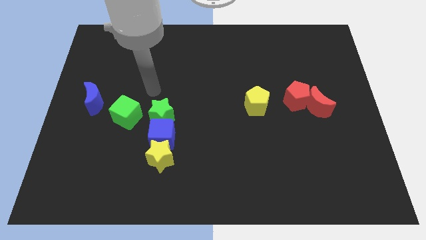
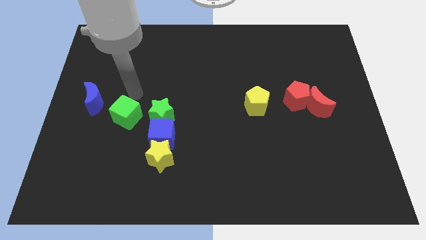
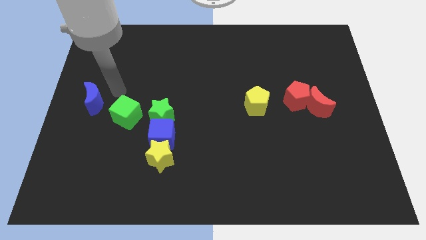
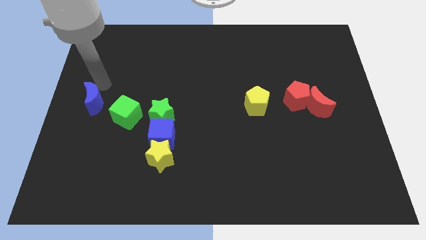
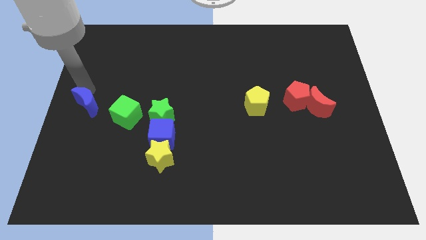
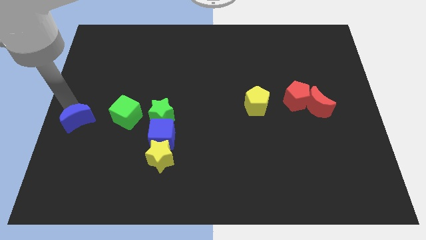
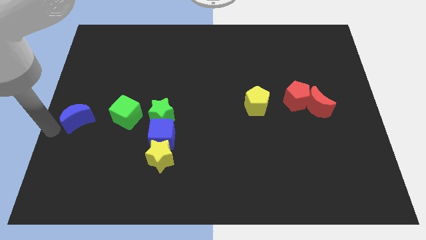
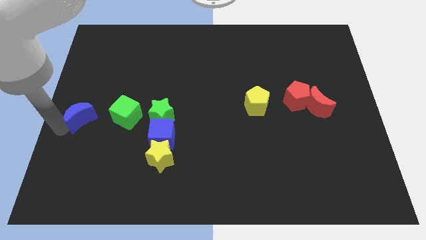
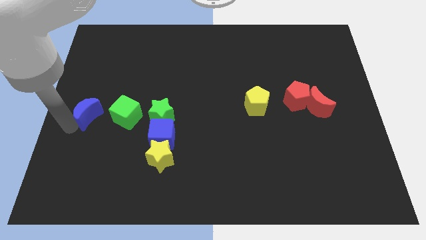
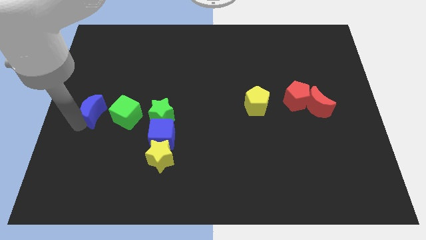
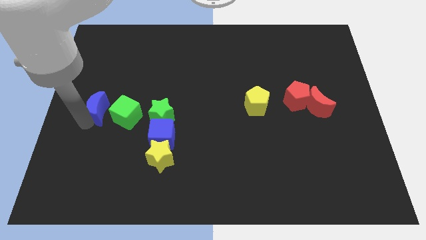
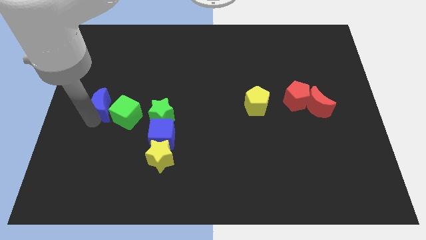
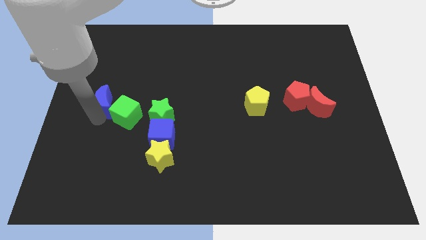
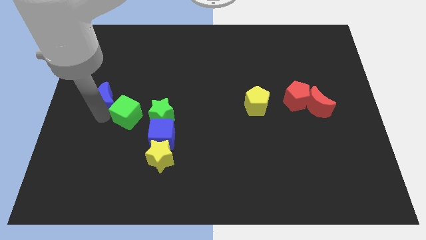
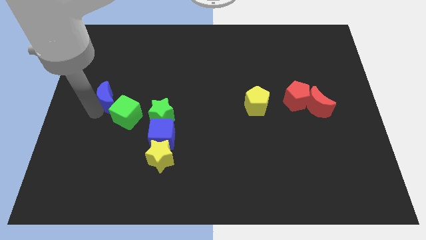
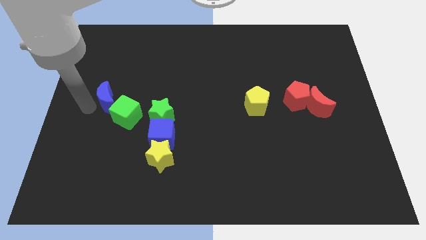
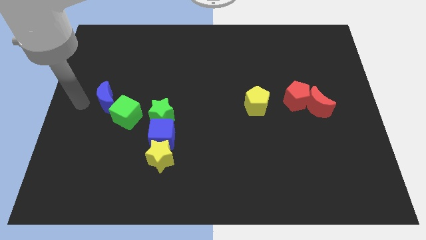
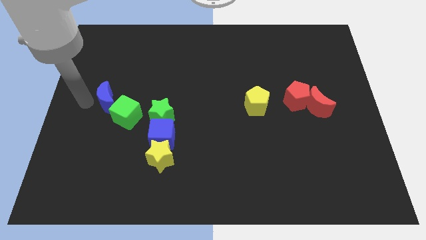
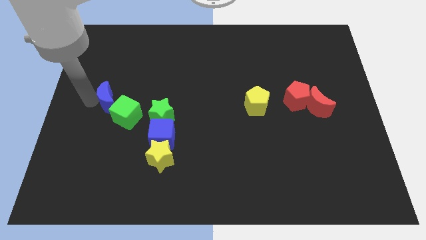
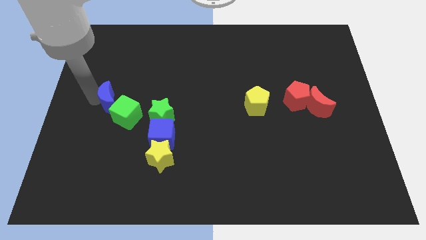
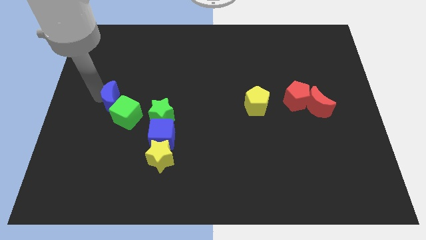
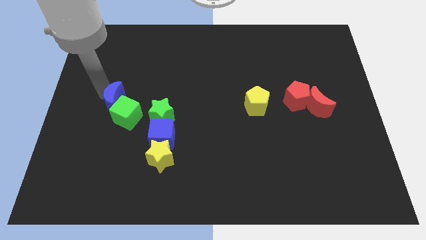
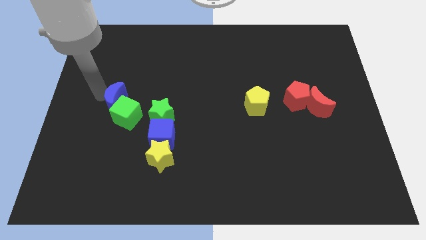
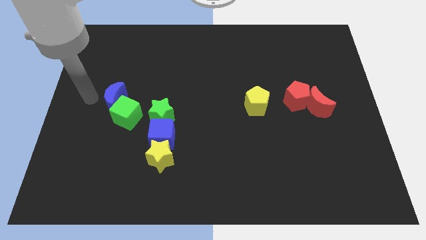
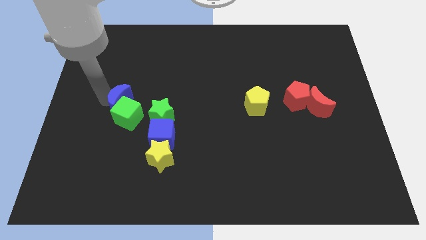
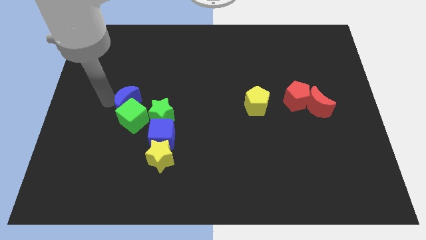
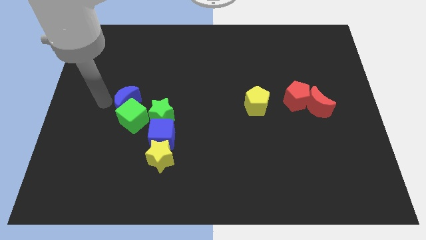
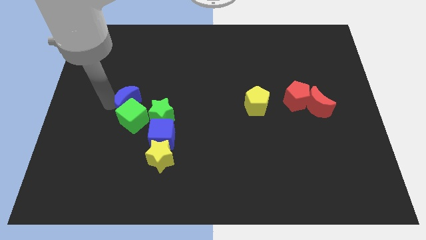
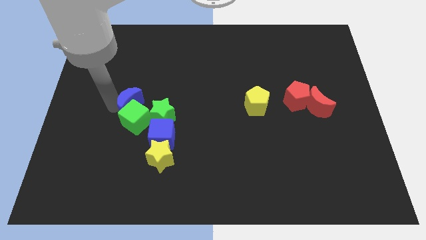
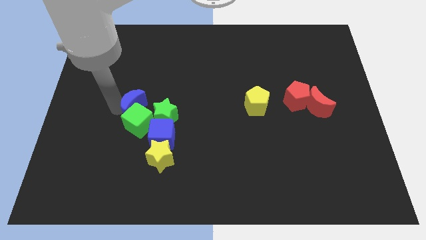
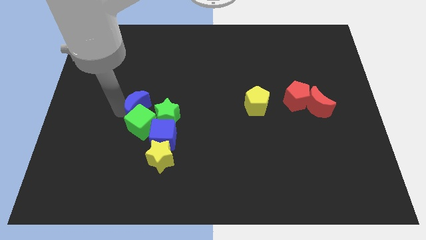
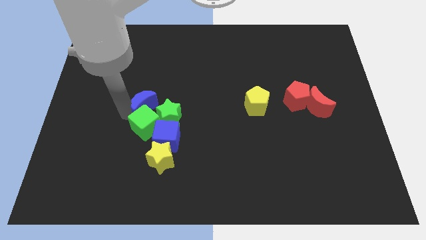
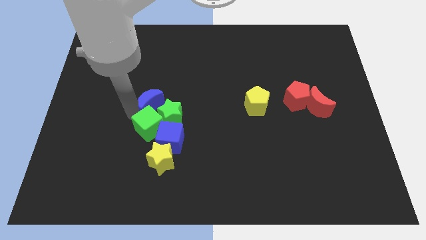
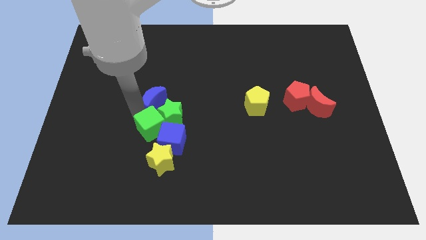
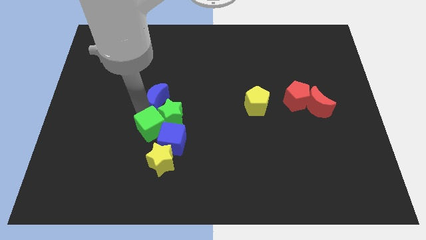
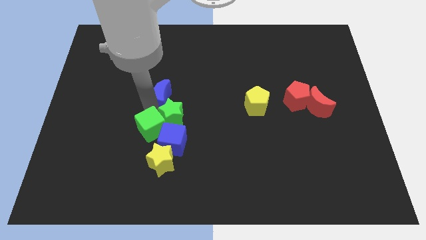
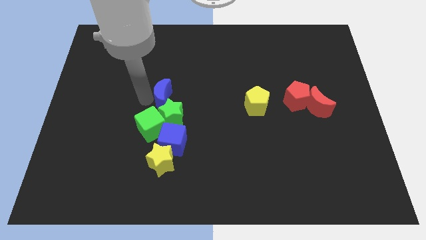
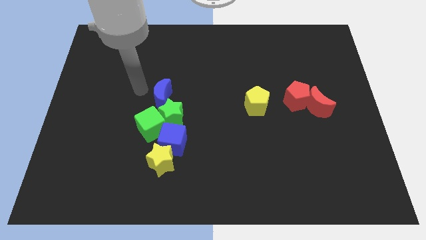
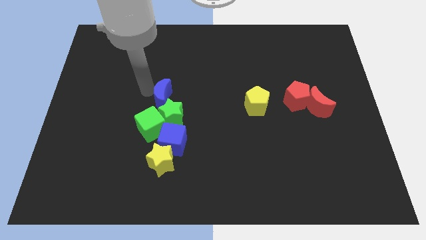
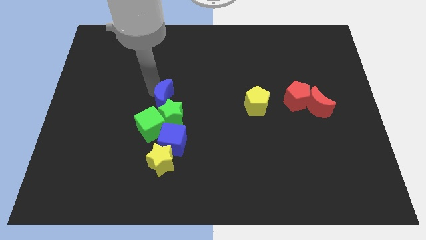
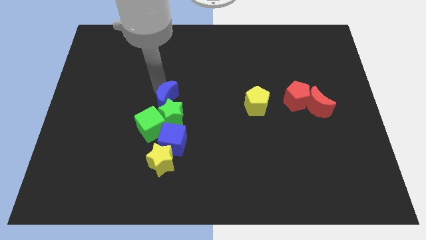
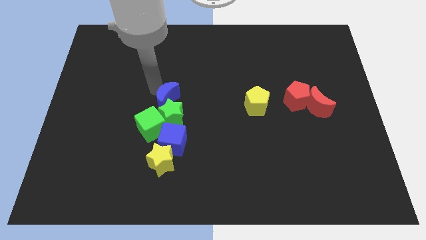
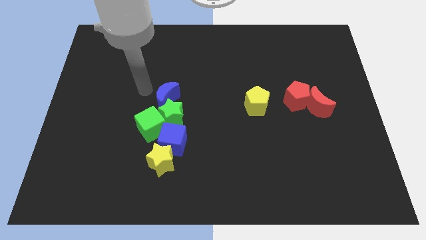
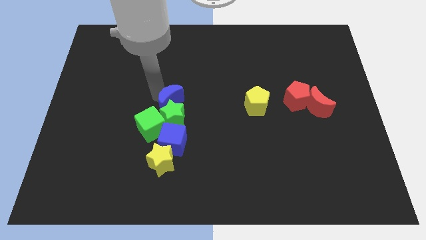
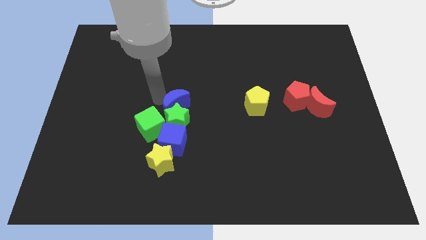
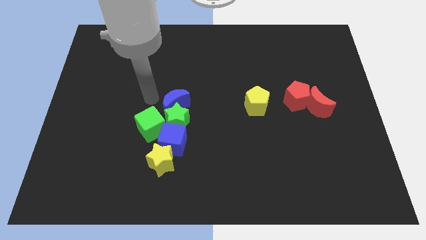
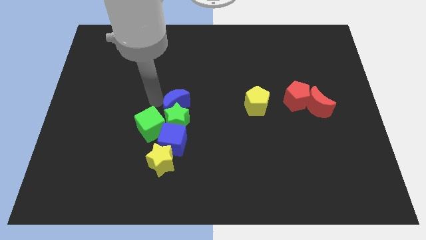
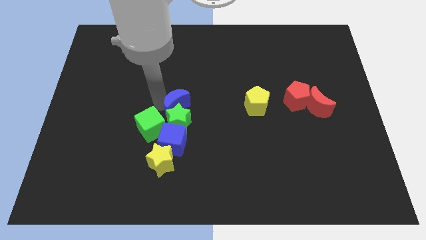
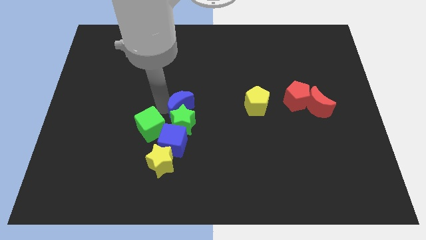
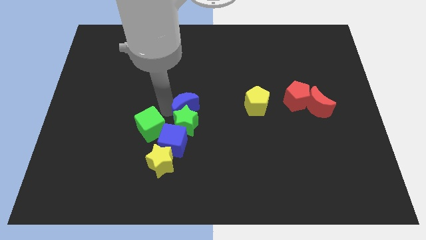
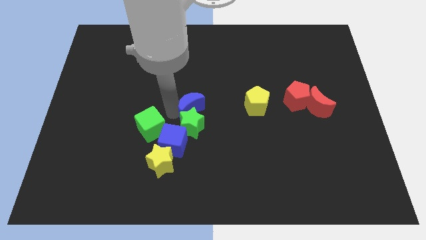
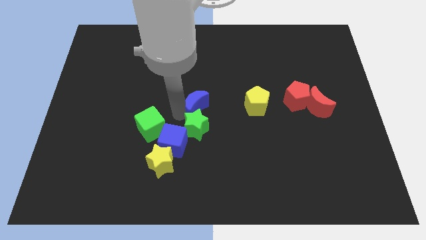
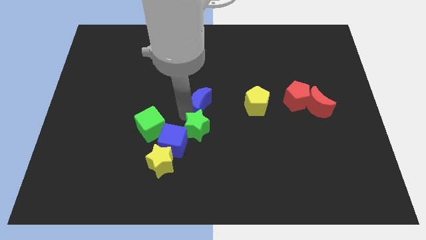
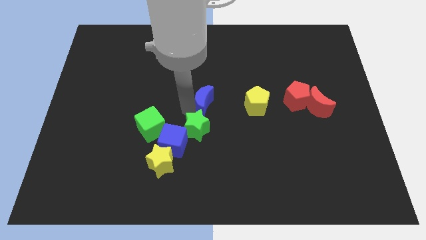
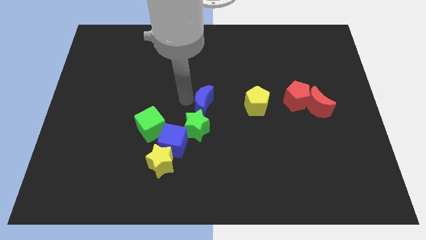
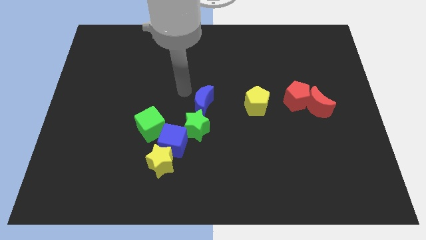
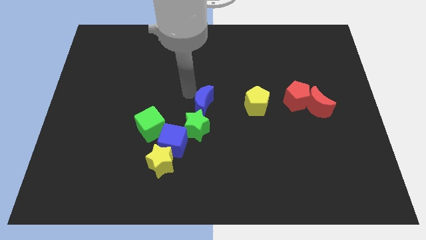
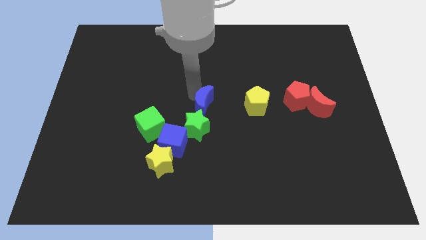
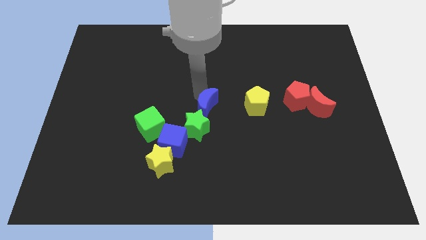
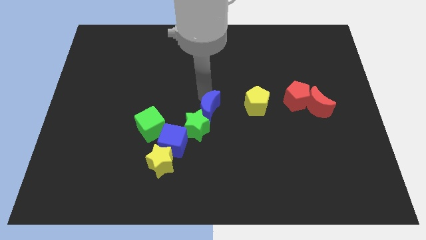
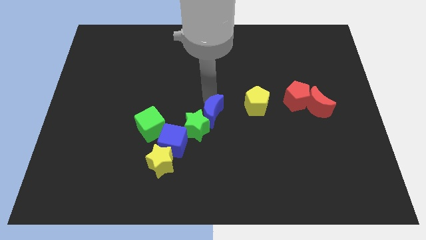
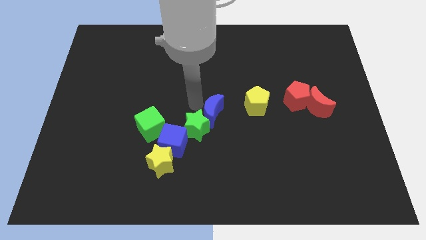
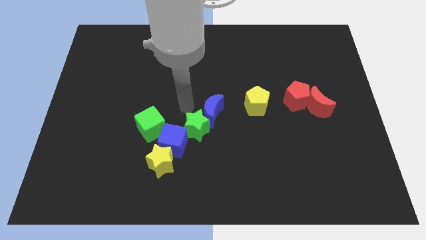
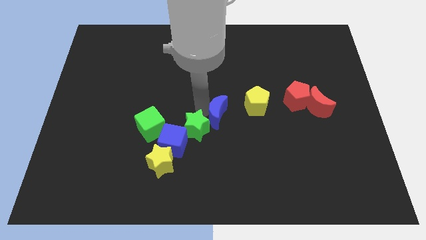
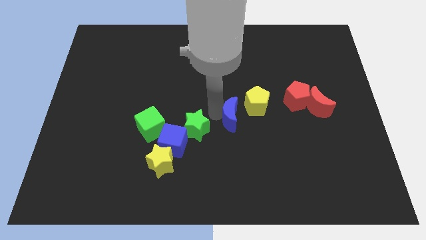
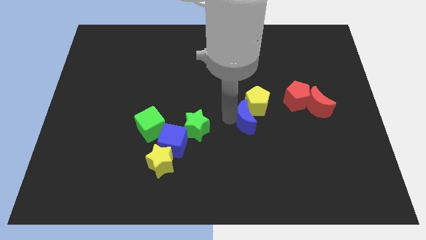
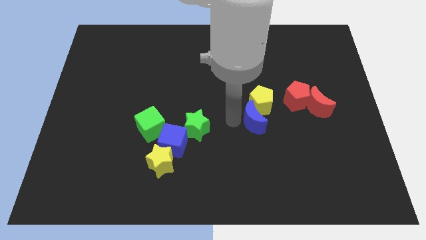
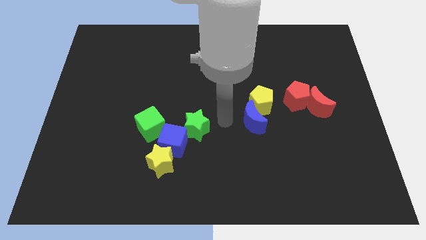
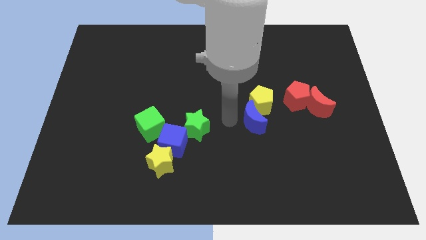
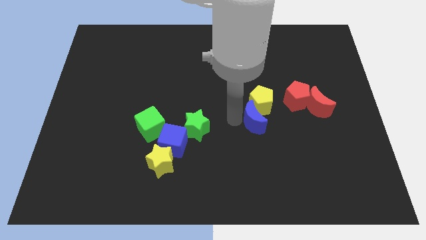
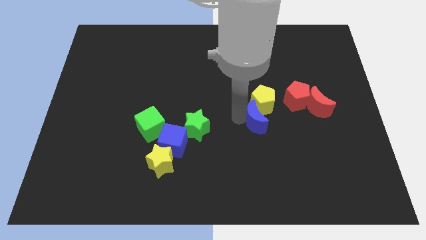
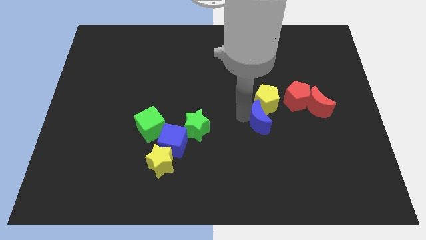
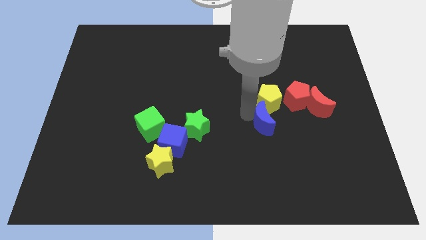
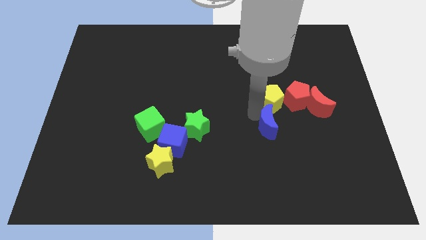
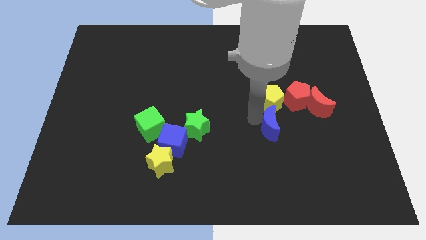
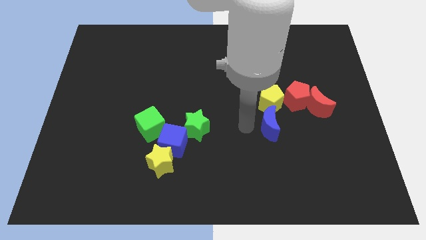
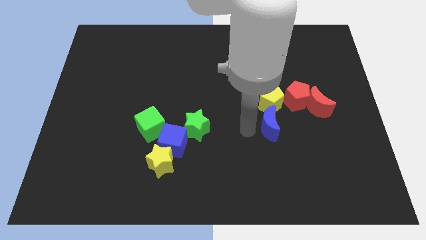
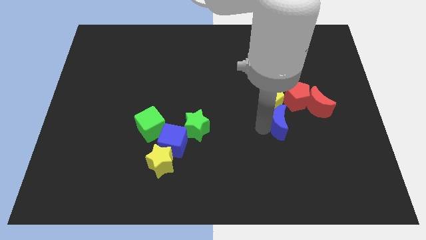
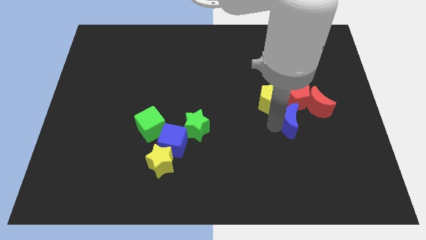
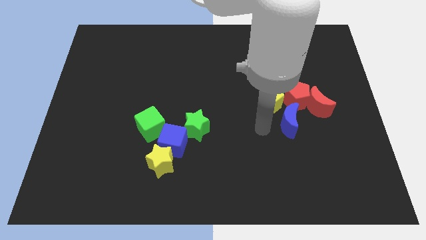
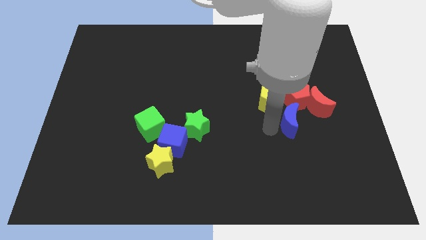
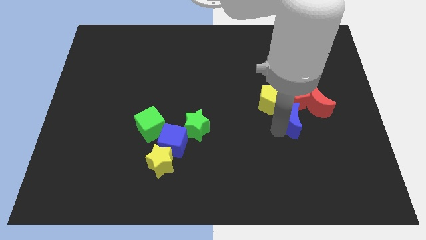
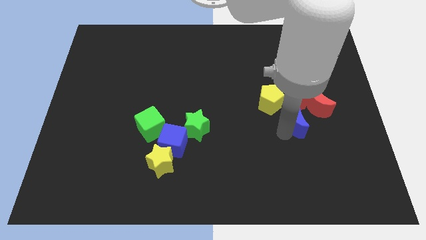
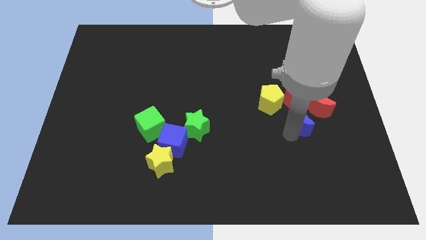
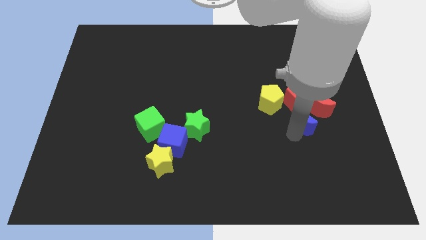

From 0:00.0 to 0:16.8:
push the blue moon to the bottom right of the red pentagon
